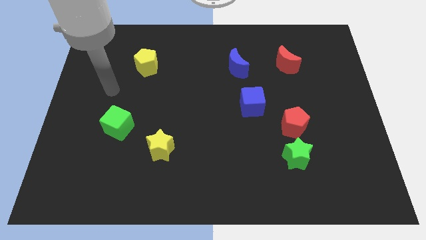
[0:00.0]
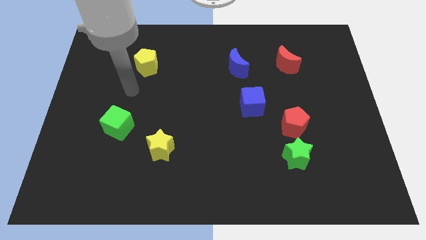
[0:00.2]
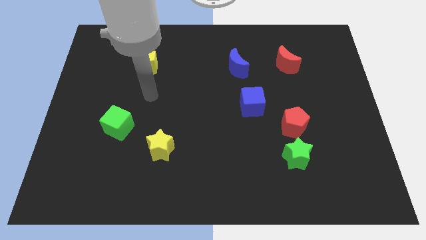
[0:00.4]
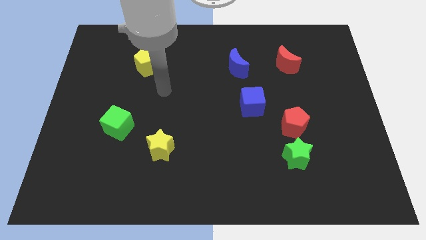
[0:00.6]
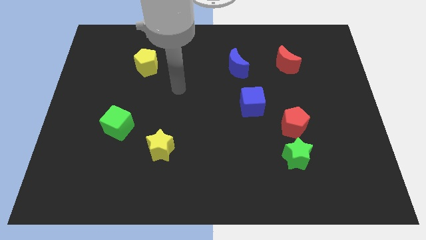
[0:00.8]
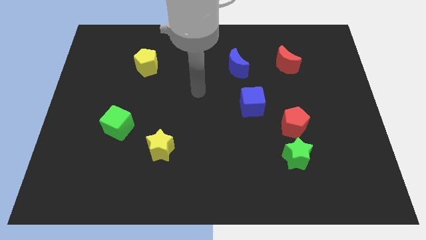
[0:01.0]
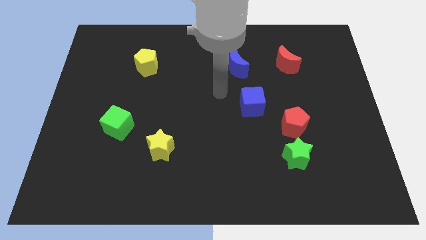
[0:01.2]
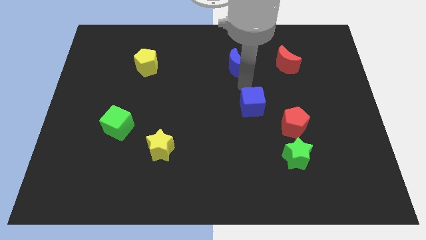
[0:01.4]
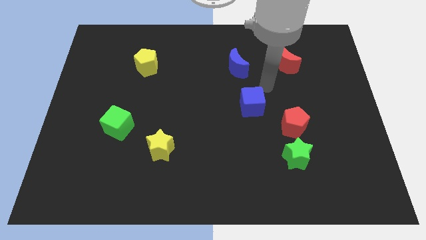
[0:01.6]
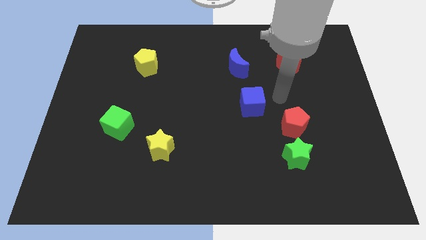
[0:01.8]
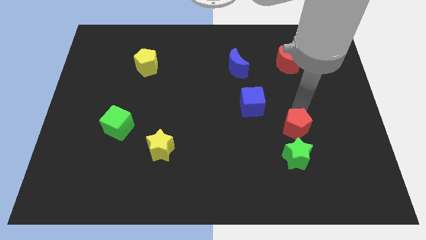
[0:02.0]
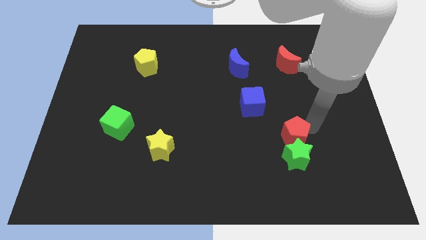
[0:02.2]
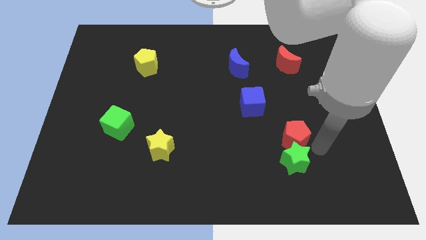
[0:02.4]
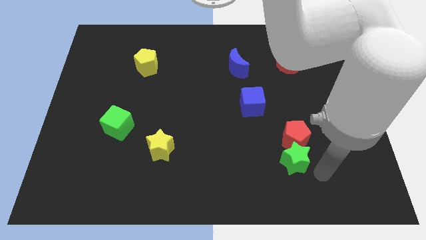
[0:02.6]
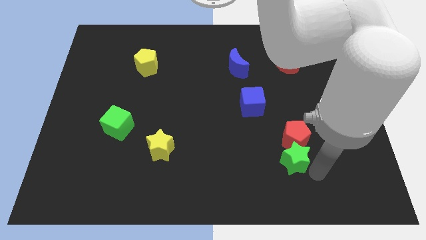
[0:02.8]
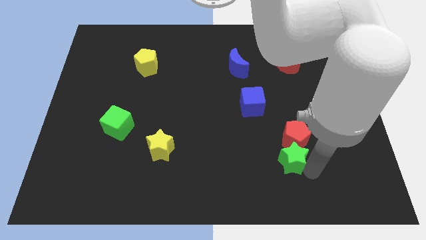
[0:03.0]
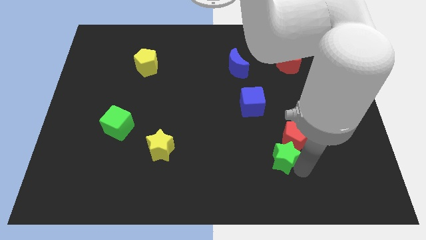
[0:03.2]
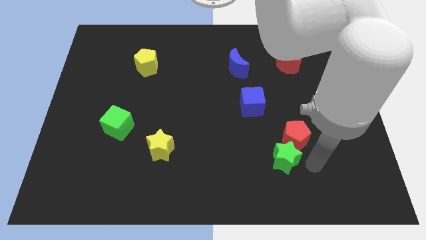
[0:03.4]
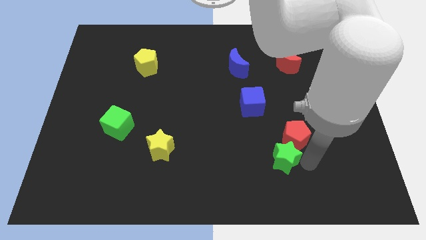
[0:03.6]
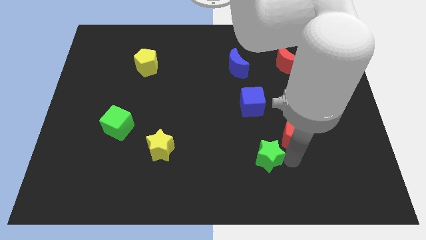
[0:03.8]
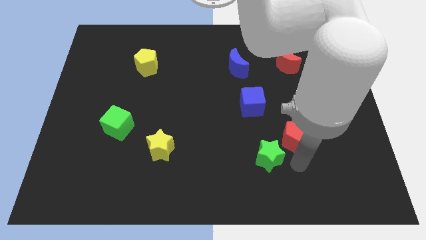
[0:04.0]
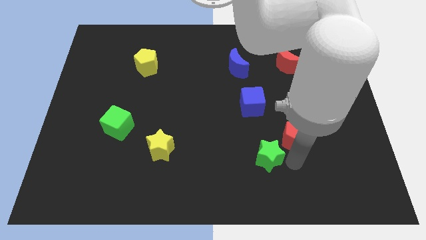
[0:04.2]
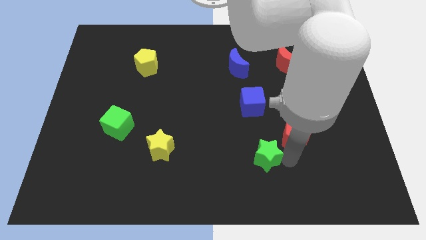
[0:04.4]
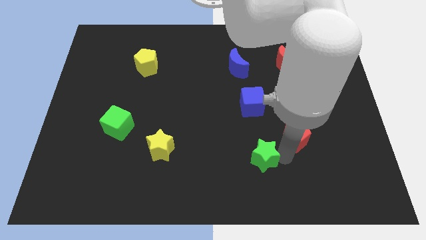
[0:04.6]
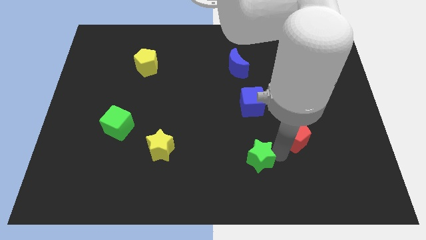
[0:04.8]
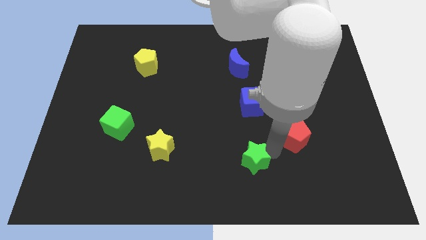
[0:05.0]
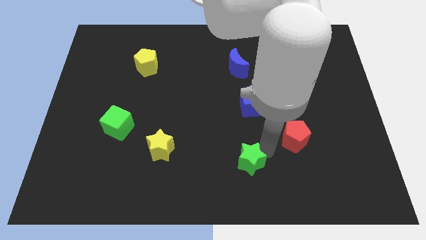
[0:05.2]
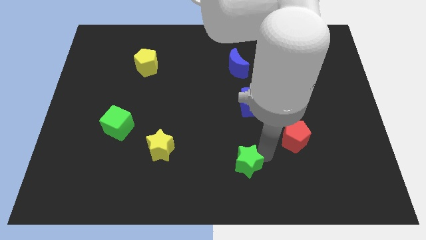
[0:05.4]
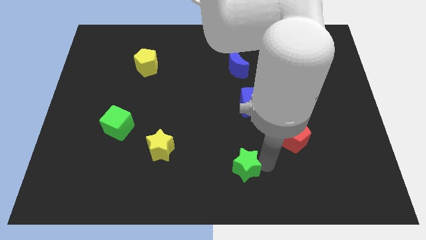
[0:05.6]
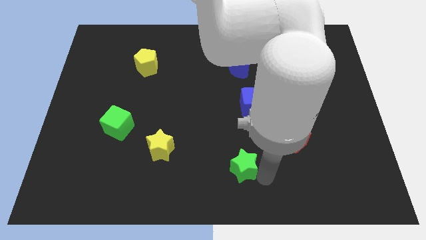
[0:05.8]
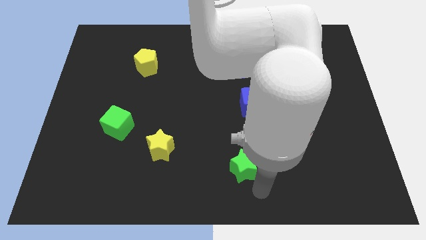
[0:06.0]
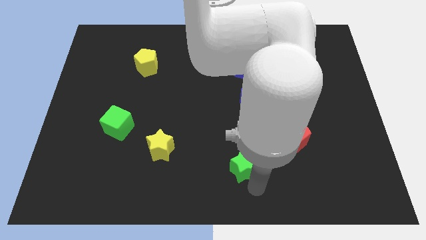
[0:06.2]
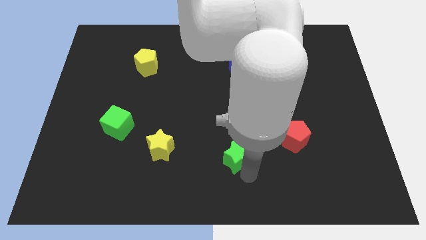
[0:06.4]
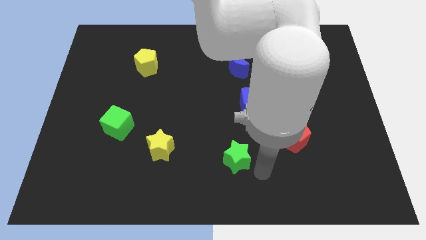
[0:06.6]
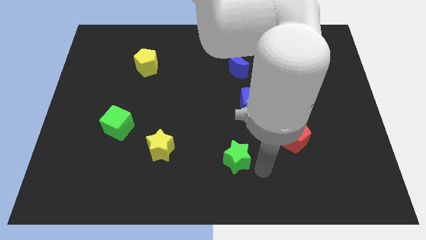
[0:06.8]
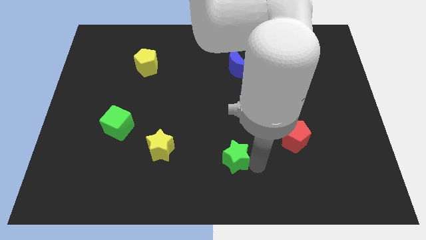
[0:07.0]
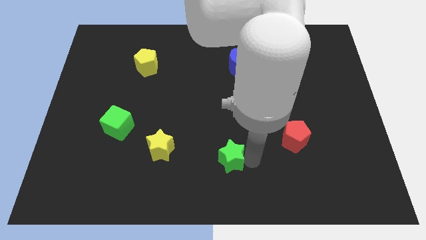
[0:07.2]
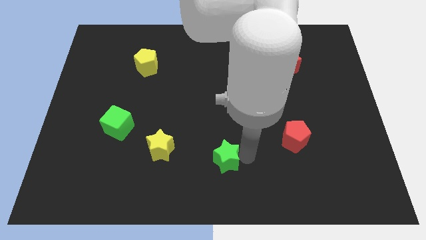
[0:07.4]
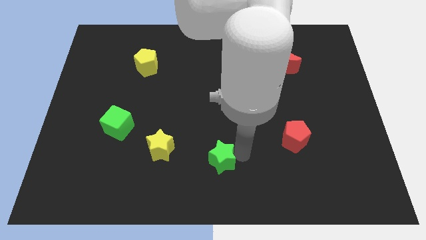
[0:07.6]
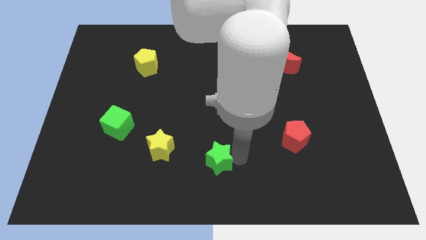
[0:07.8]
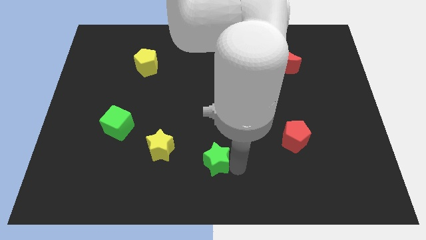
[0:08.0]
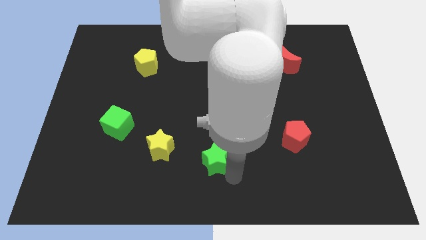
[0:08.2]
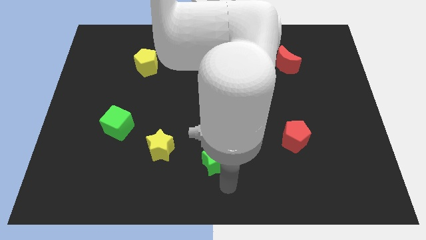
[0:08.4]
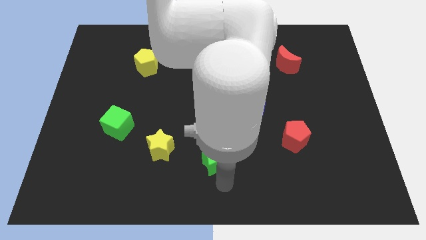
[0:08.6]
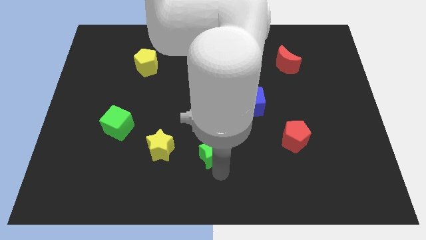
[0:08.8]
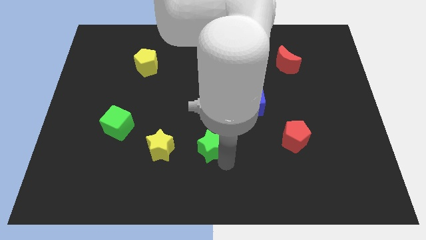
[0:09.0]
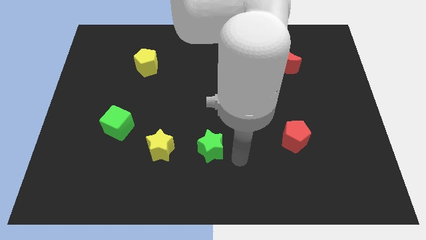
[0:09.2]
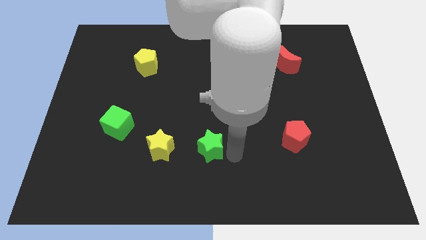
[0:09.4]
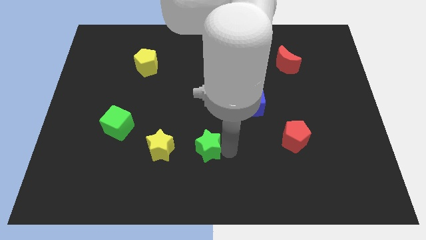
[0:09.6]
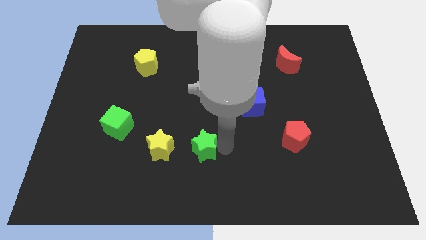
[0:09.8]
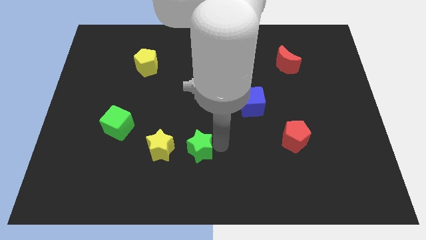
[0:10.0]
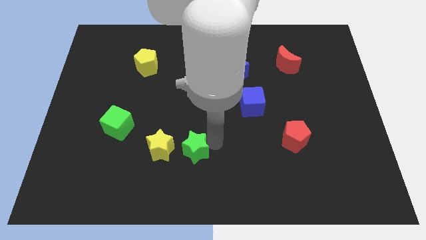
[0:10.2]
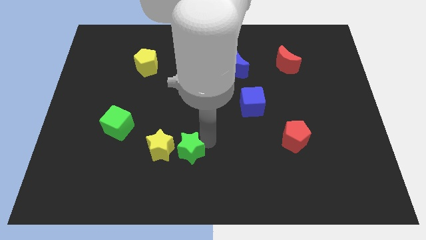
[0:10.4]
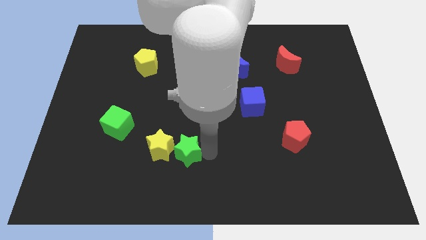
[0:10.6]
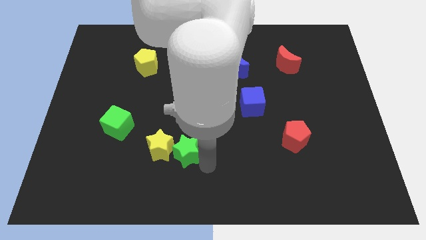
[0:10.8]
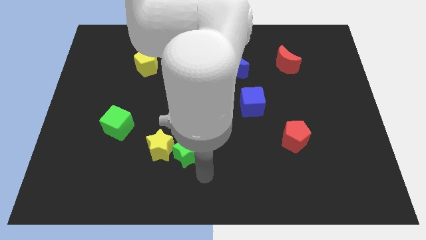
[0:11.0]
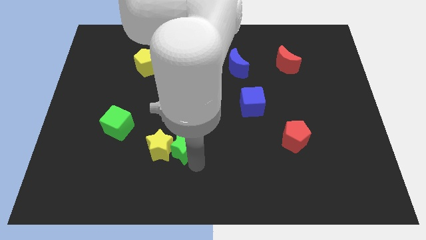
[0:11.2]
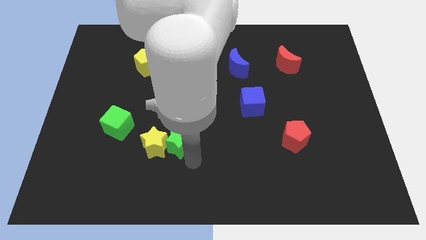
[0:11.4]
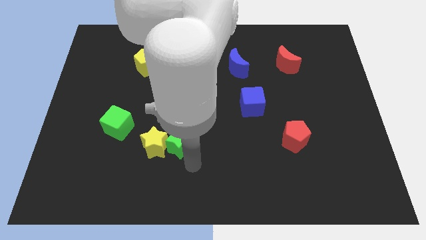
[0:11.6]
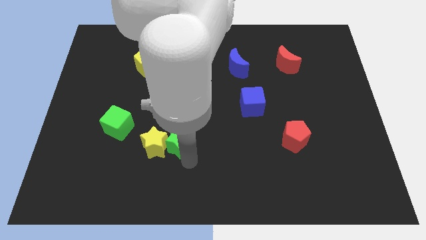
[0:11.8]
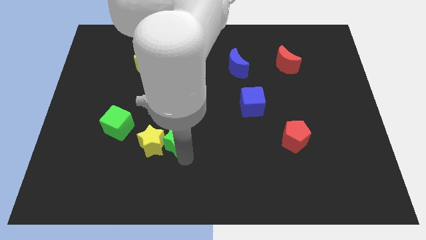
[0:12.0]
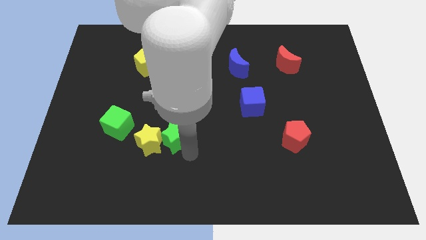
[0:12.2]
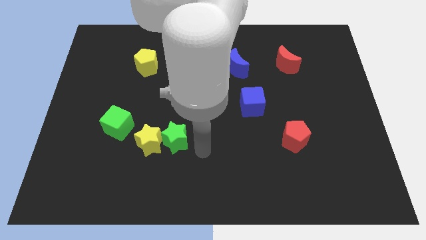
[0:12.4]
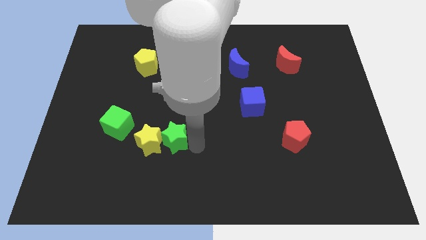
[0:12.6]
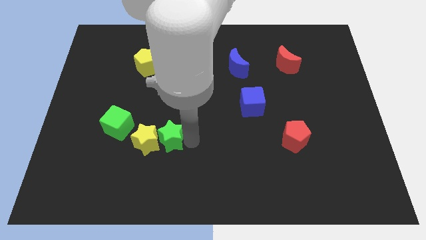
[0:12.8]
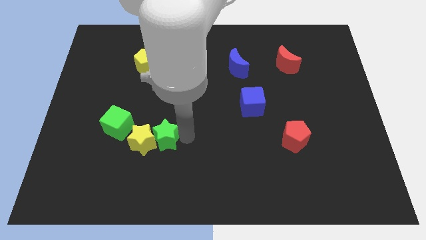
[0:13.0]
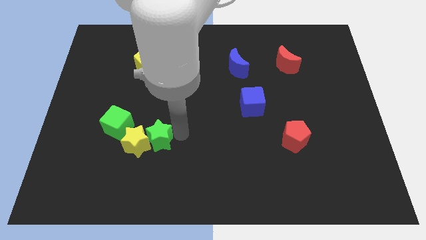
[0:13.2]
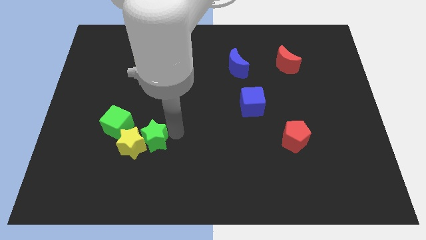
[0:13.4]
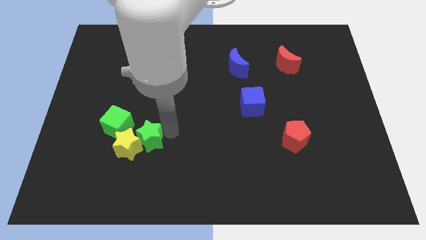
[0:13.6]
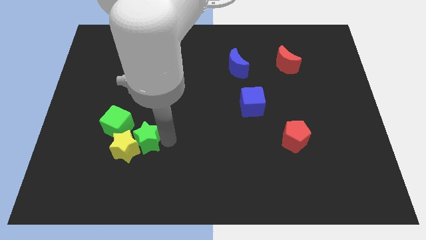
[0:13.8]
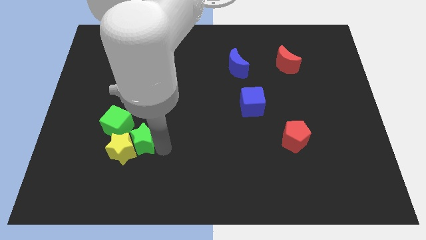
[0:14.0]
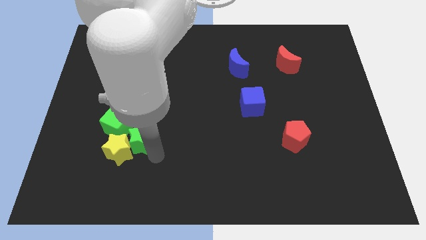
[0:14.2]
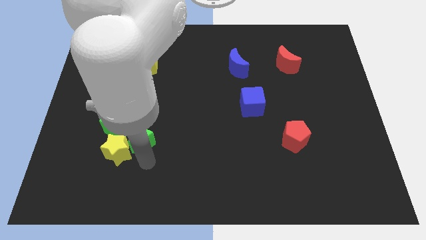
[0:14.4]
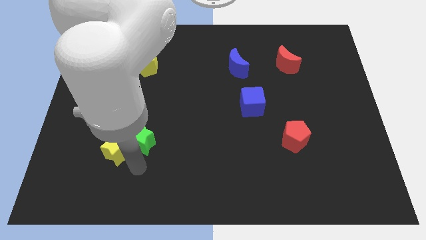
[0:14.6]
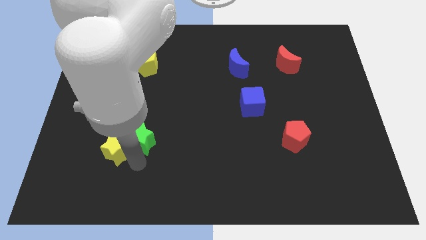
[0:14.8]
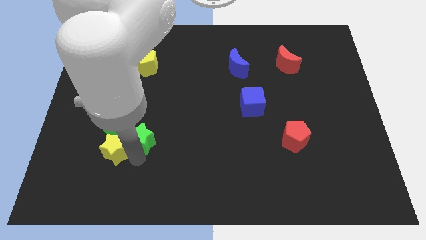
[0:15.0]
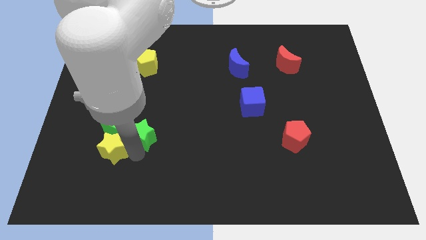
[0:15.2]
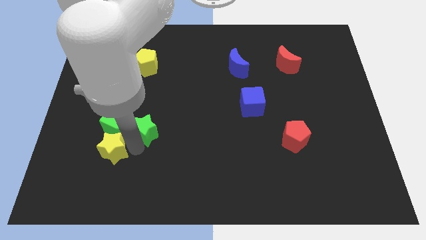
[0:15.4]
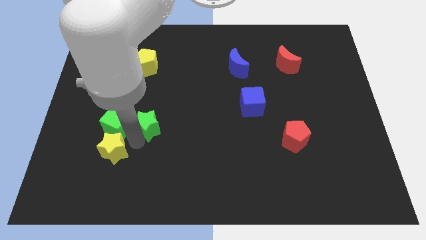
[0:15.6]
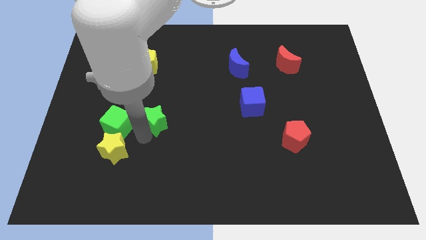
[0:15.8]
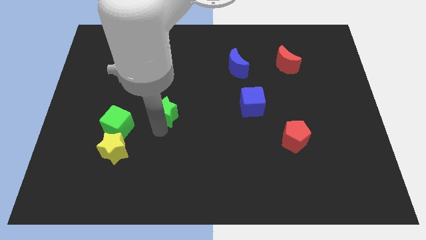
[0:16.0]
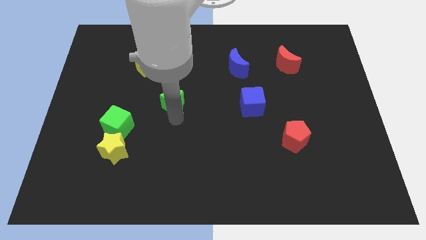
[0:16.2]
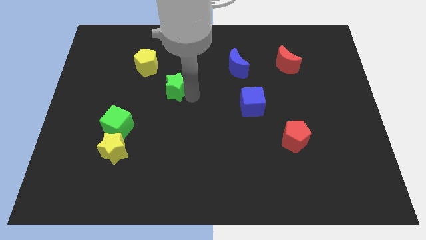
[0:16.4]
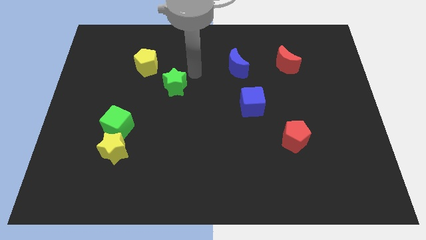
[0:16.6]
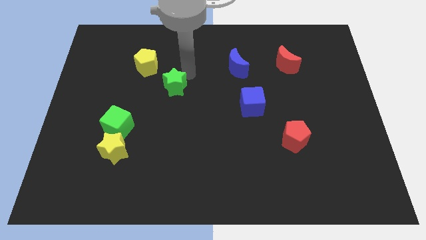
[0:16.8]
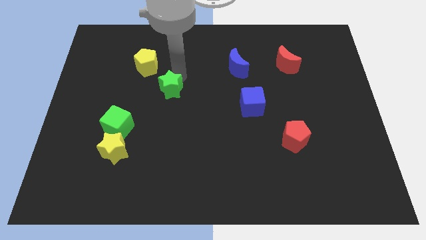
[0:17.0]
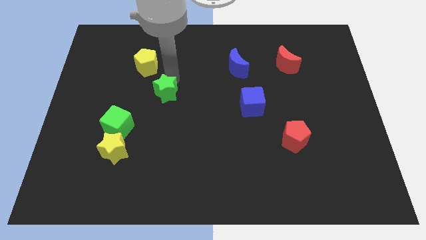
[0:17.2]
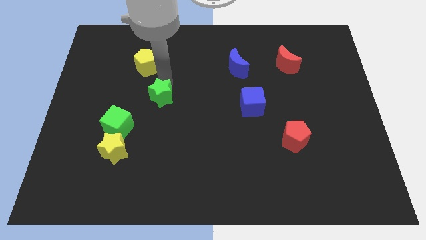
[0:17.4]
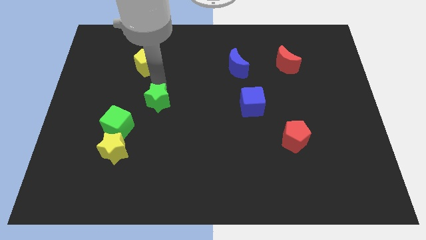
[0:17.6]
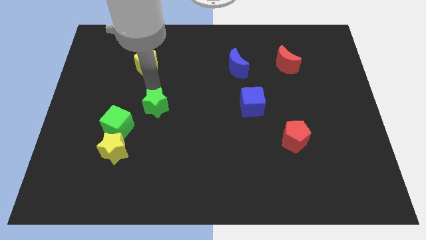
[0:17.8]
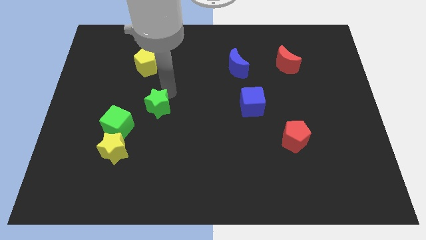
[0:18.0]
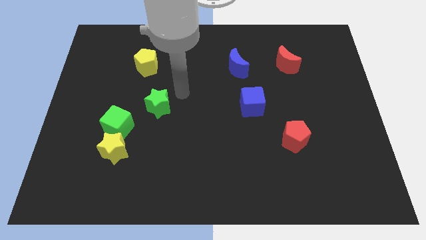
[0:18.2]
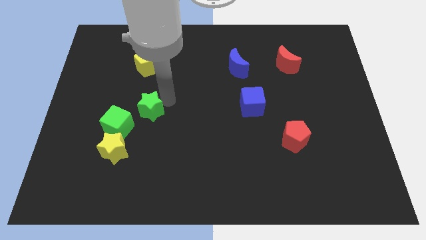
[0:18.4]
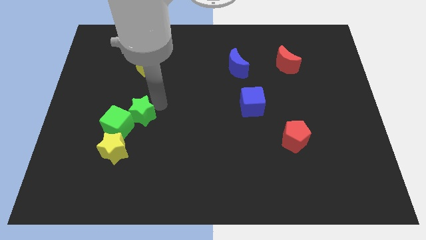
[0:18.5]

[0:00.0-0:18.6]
put the green star close to the green cube
